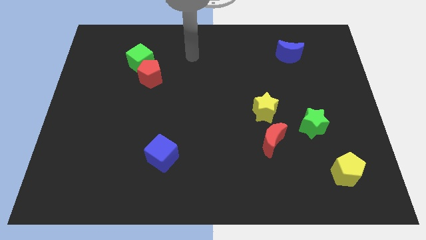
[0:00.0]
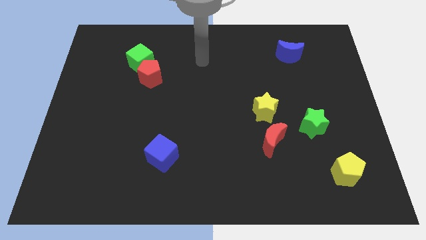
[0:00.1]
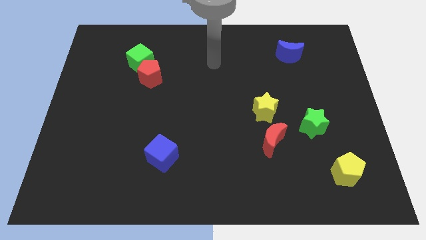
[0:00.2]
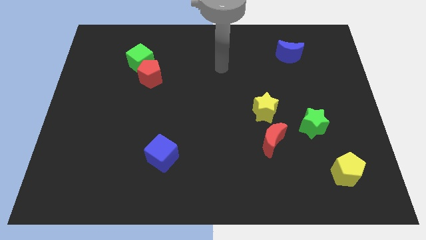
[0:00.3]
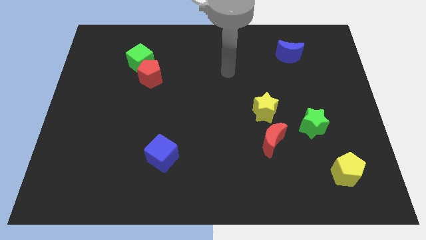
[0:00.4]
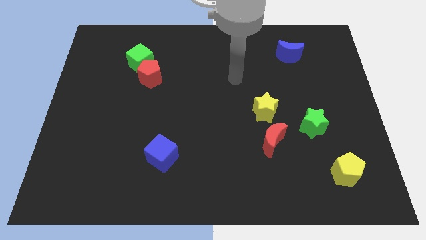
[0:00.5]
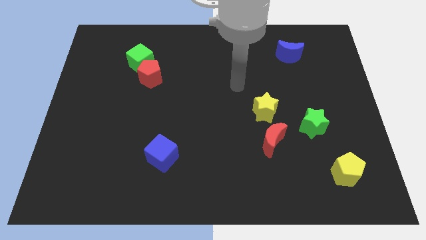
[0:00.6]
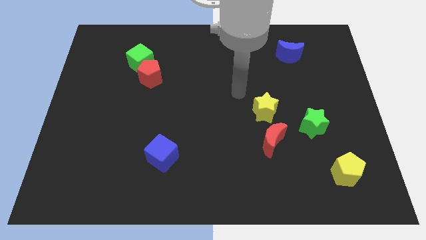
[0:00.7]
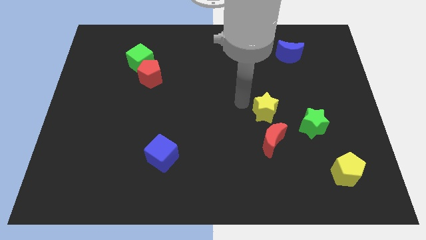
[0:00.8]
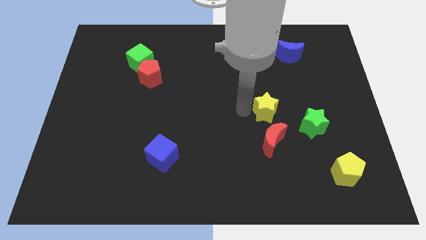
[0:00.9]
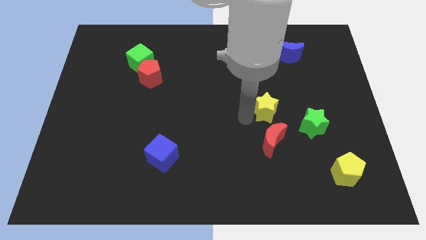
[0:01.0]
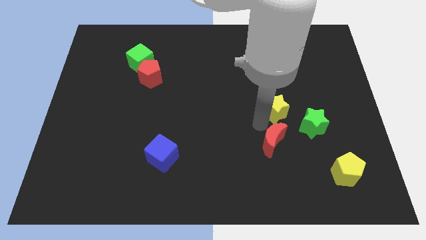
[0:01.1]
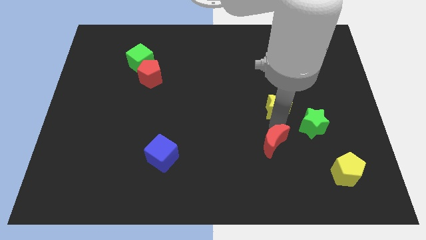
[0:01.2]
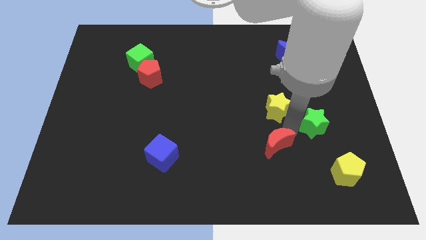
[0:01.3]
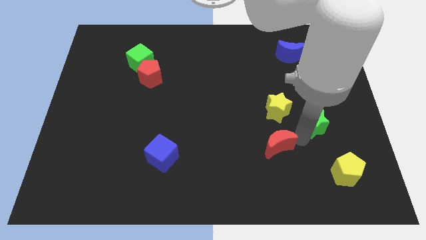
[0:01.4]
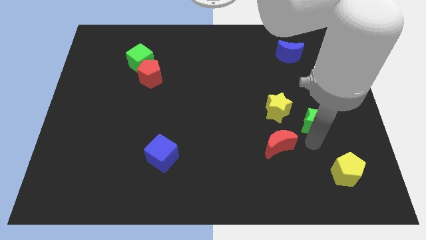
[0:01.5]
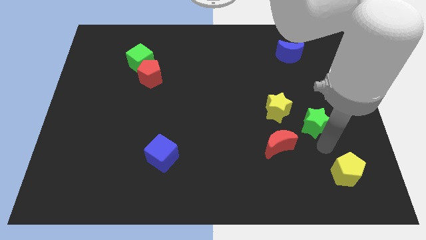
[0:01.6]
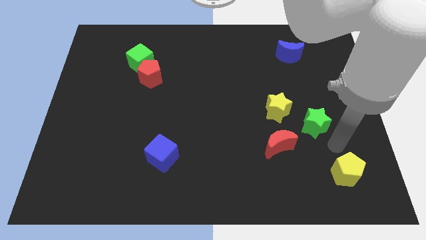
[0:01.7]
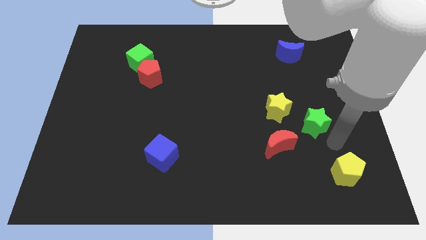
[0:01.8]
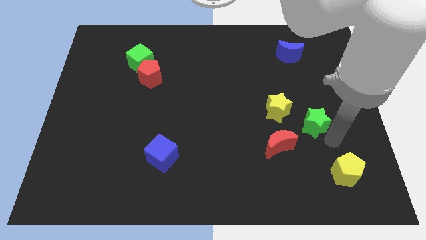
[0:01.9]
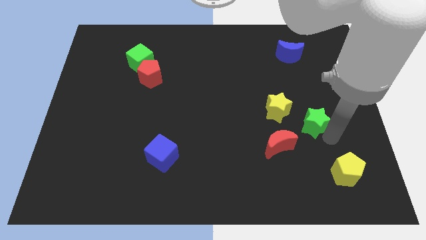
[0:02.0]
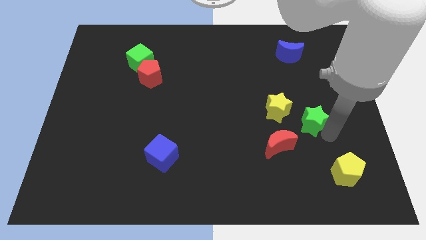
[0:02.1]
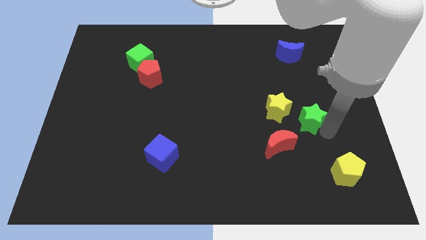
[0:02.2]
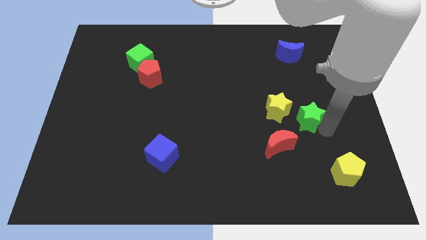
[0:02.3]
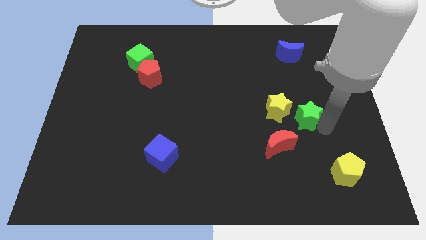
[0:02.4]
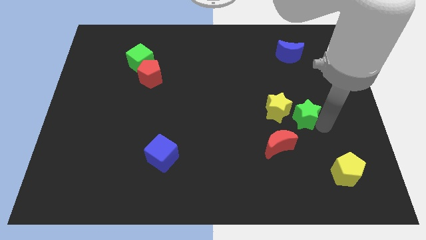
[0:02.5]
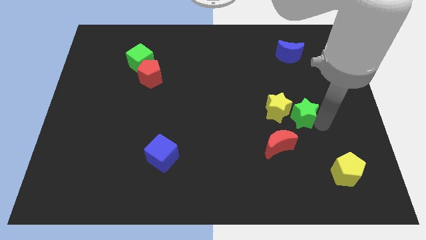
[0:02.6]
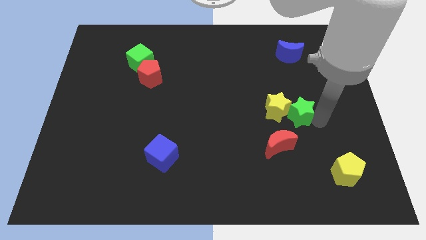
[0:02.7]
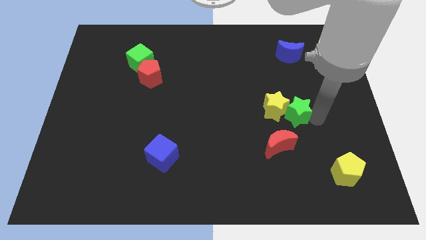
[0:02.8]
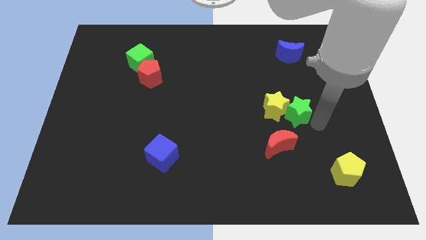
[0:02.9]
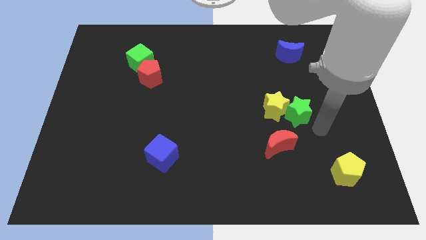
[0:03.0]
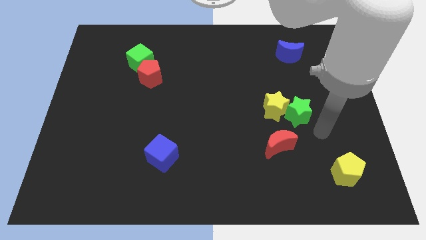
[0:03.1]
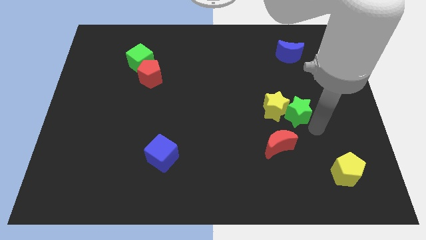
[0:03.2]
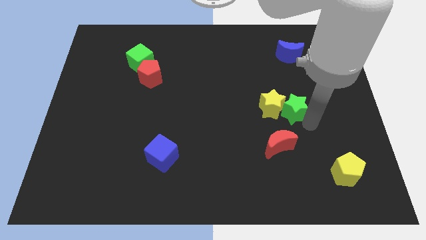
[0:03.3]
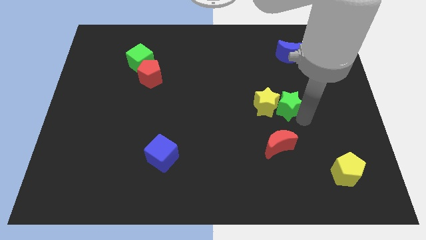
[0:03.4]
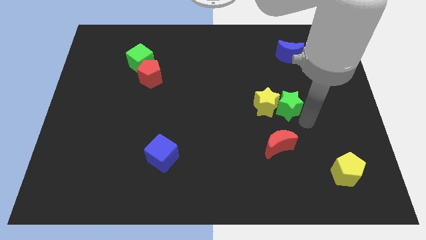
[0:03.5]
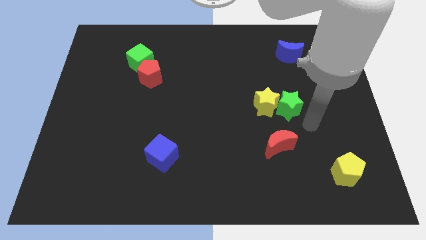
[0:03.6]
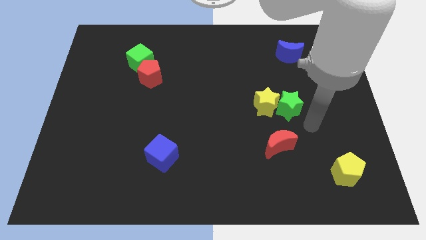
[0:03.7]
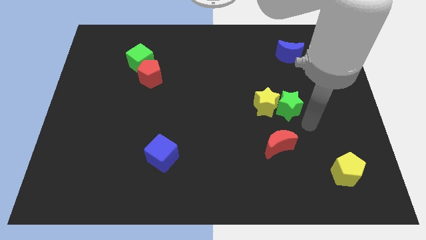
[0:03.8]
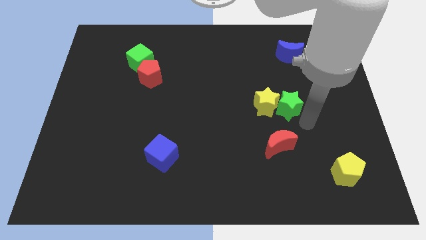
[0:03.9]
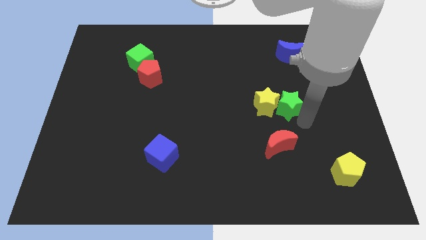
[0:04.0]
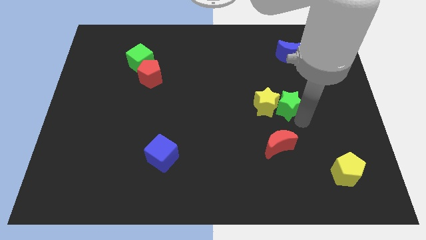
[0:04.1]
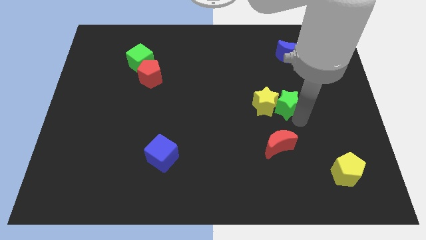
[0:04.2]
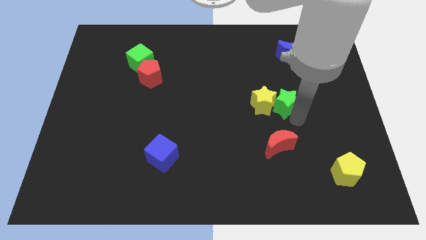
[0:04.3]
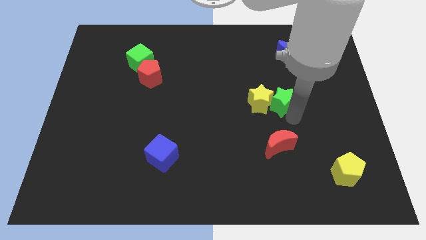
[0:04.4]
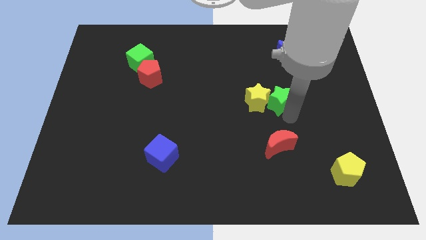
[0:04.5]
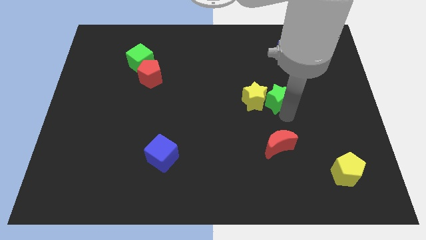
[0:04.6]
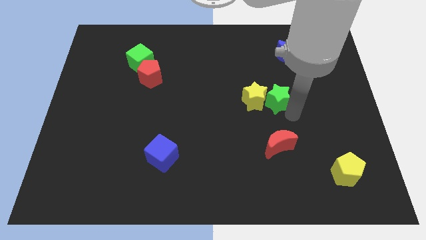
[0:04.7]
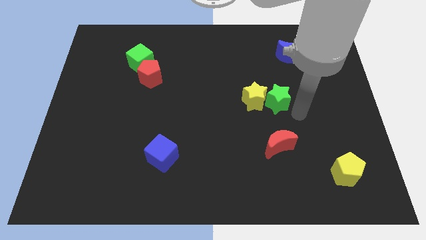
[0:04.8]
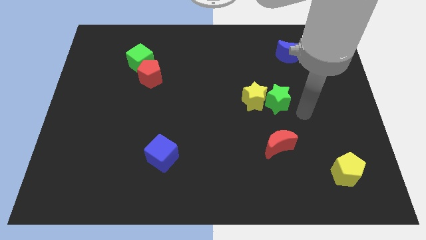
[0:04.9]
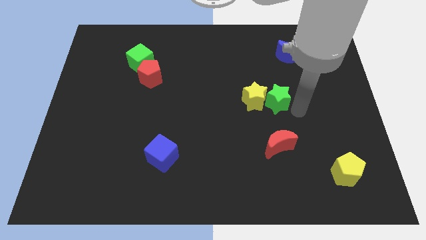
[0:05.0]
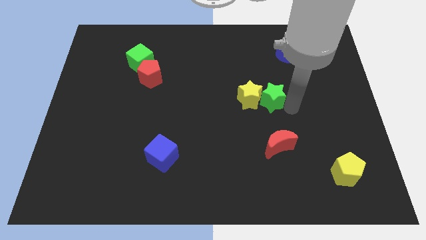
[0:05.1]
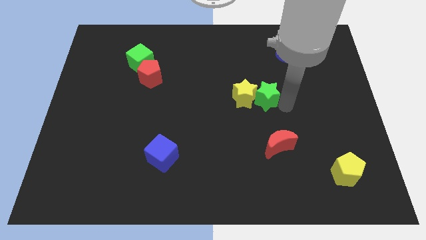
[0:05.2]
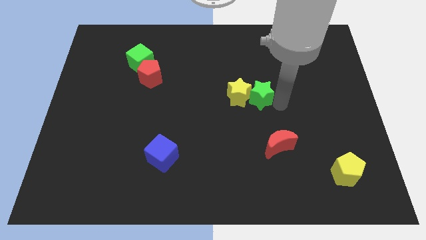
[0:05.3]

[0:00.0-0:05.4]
push the green star to the center of the board
